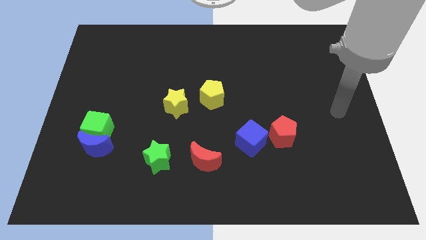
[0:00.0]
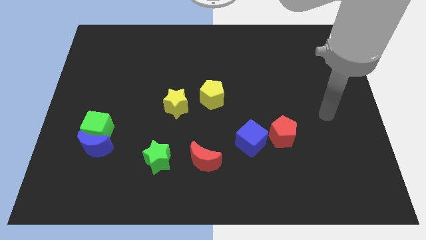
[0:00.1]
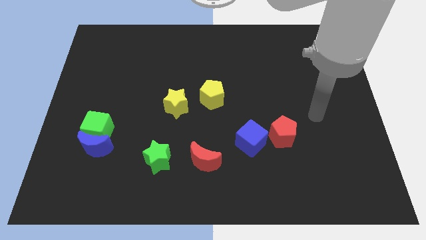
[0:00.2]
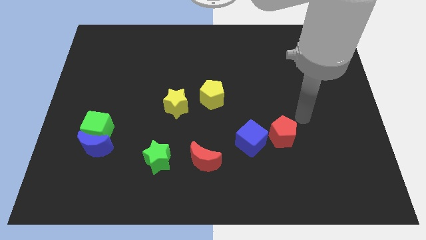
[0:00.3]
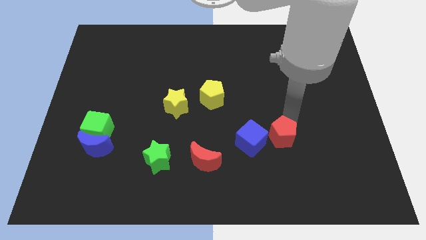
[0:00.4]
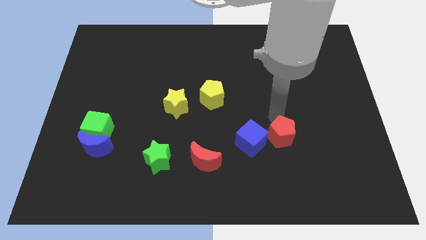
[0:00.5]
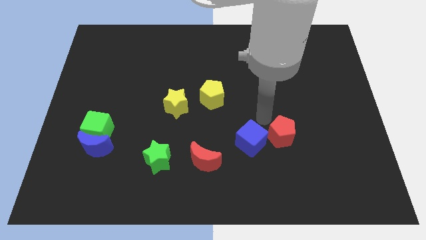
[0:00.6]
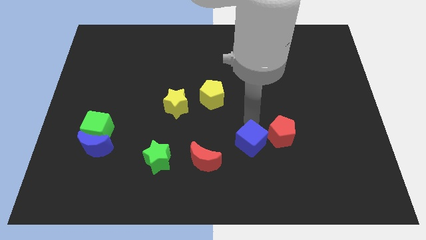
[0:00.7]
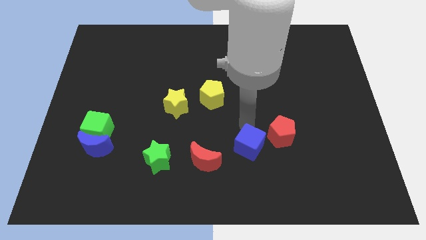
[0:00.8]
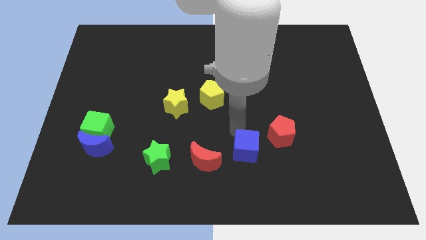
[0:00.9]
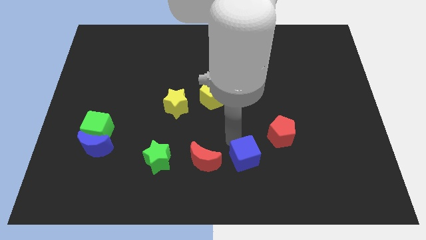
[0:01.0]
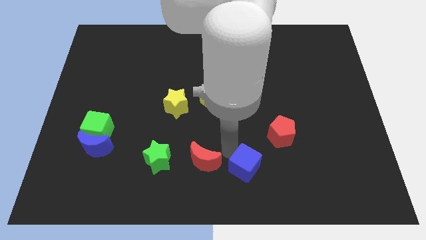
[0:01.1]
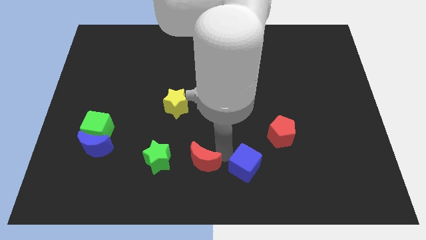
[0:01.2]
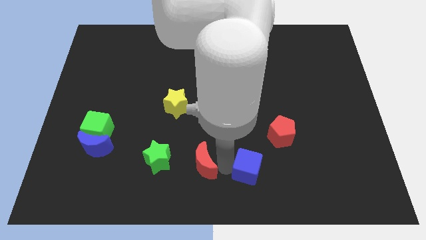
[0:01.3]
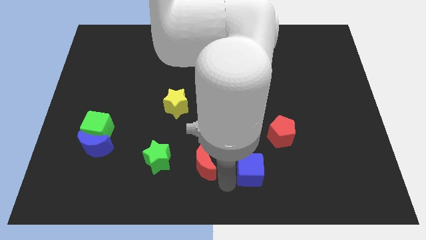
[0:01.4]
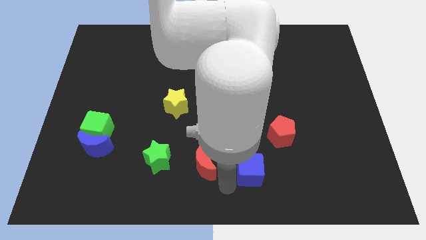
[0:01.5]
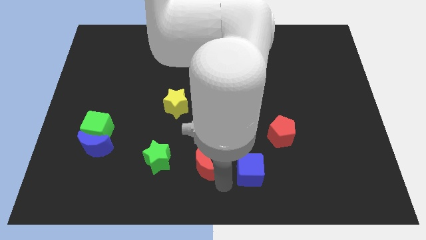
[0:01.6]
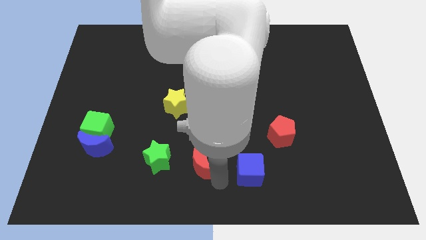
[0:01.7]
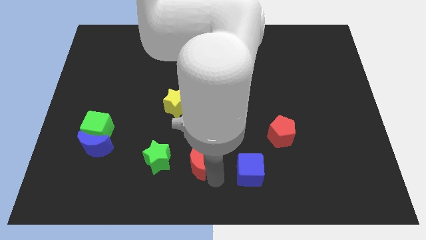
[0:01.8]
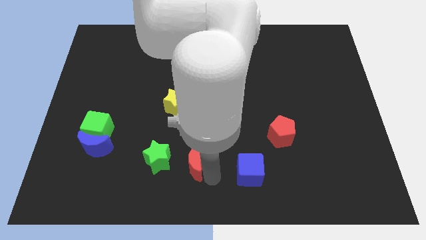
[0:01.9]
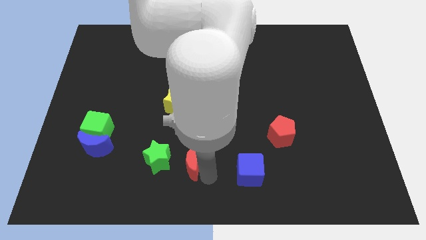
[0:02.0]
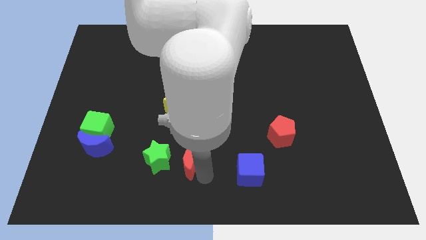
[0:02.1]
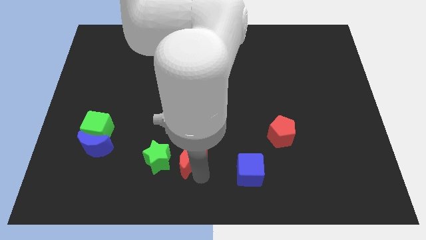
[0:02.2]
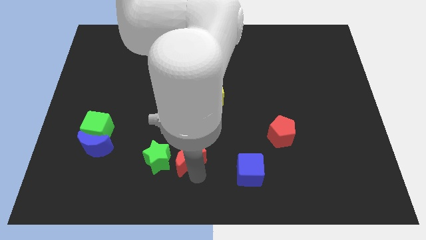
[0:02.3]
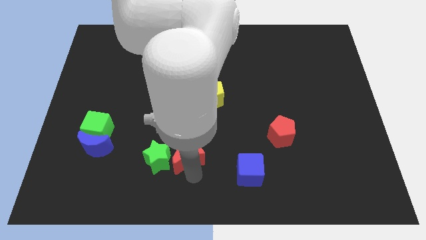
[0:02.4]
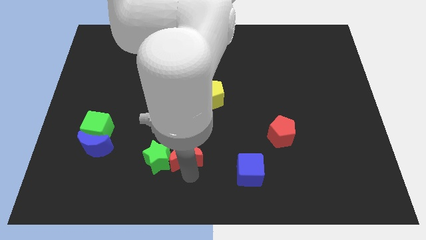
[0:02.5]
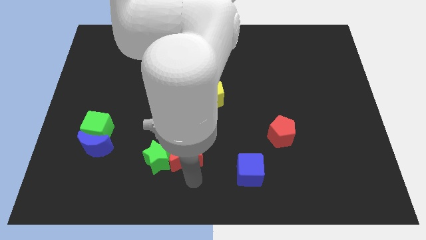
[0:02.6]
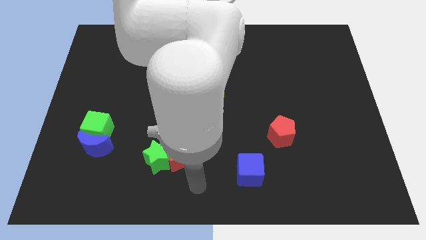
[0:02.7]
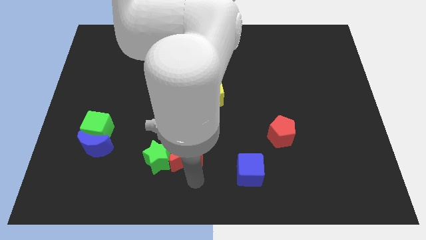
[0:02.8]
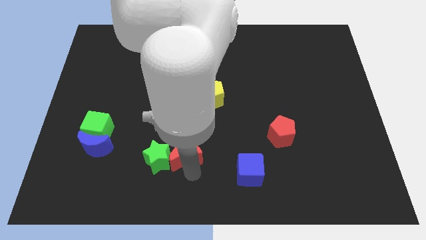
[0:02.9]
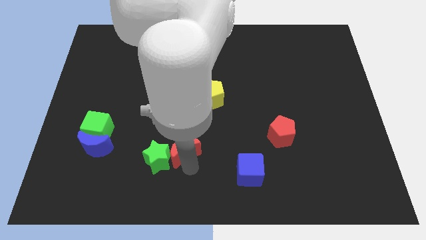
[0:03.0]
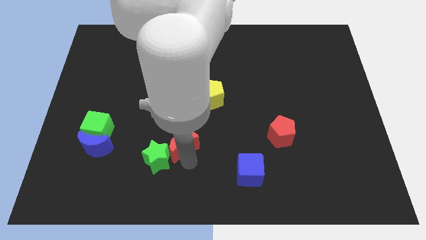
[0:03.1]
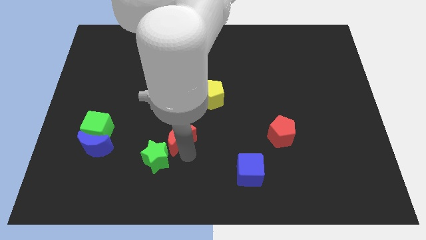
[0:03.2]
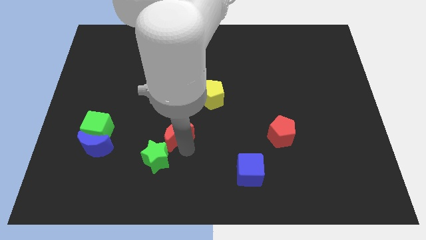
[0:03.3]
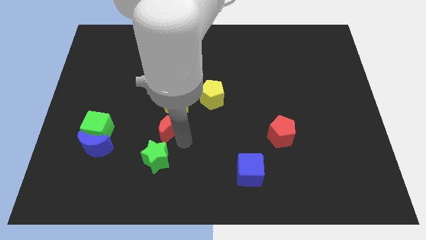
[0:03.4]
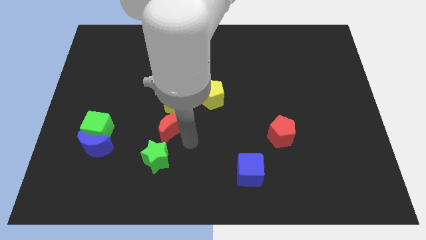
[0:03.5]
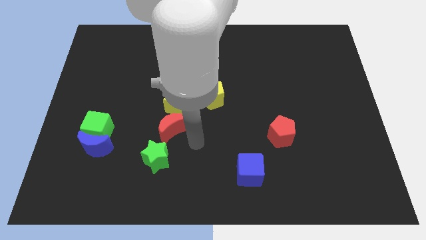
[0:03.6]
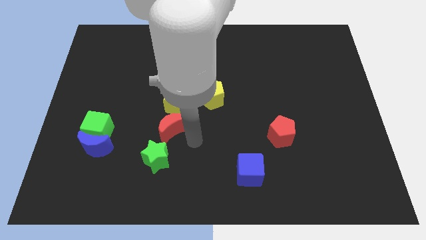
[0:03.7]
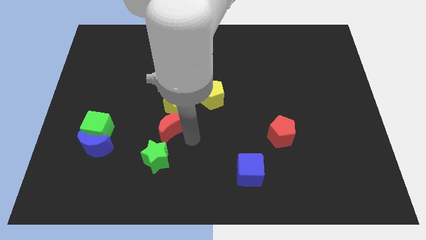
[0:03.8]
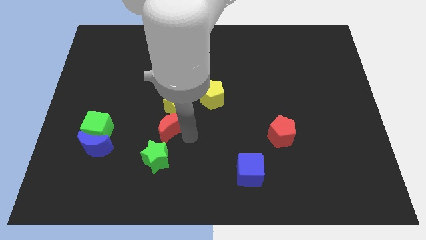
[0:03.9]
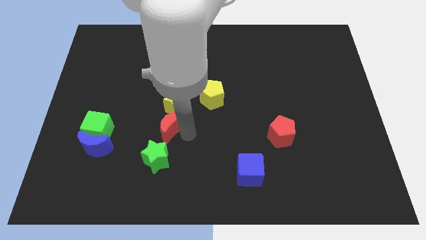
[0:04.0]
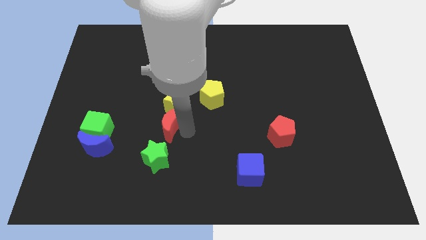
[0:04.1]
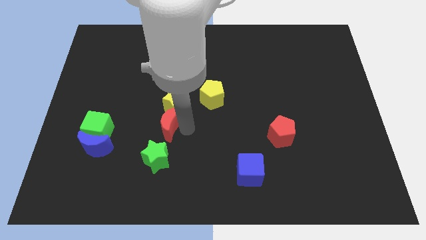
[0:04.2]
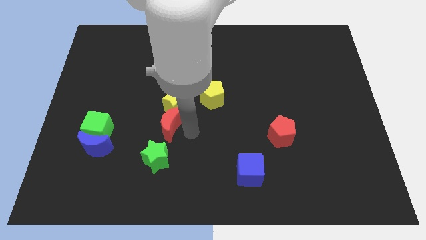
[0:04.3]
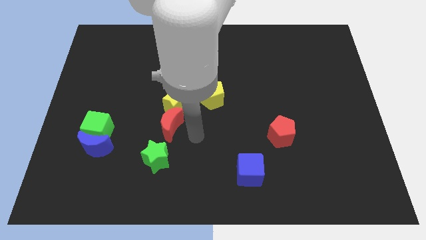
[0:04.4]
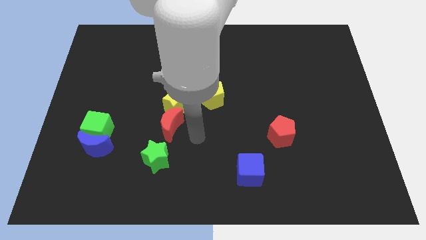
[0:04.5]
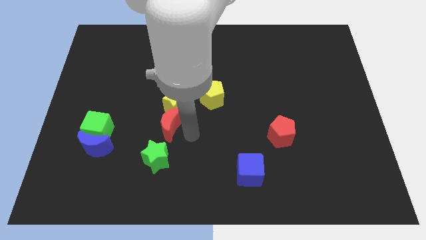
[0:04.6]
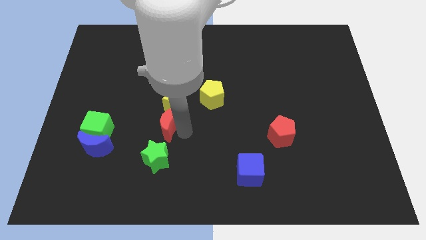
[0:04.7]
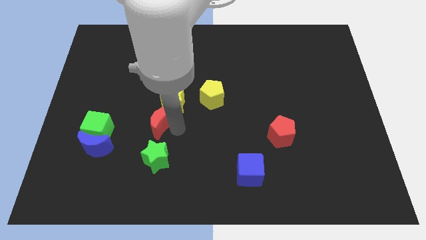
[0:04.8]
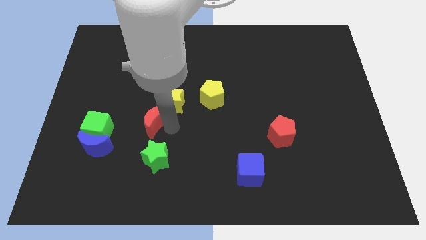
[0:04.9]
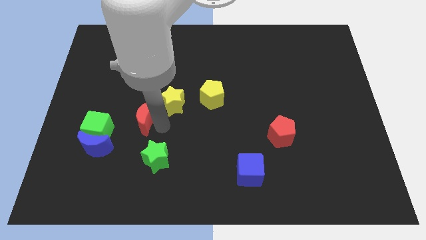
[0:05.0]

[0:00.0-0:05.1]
put the red moon left of the yellow star

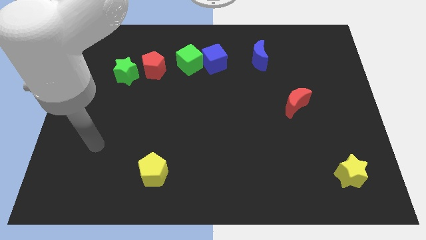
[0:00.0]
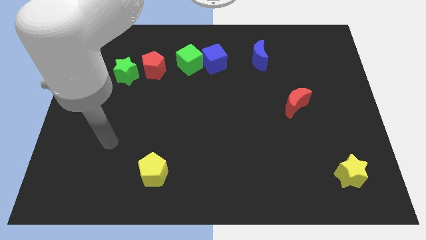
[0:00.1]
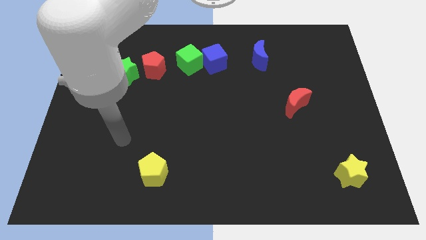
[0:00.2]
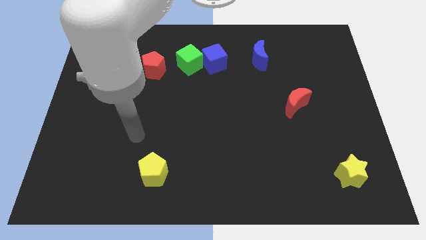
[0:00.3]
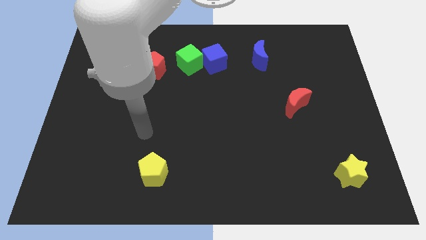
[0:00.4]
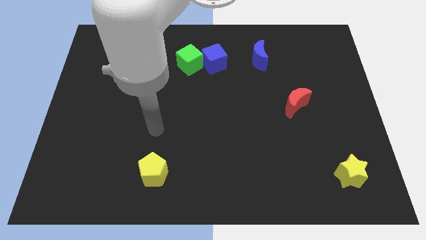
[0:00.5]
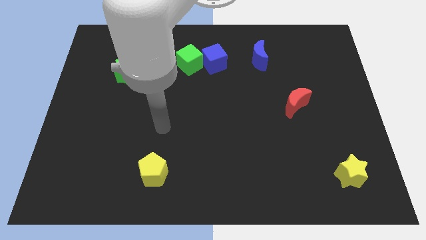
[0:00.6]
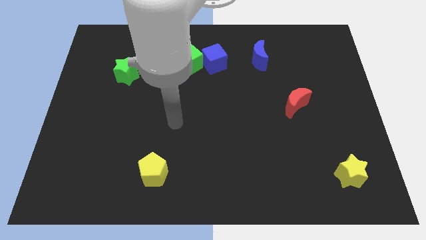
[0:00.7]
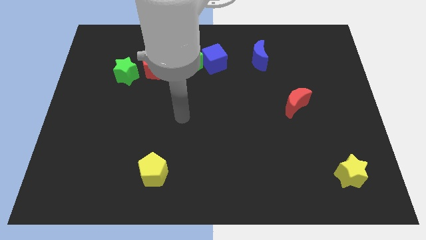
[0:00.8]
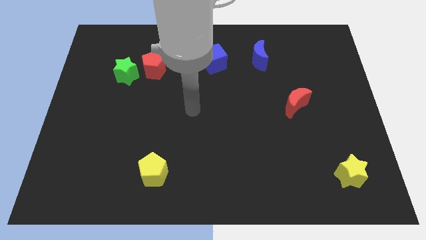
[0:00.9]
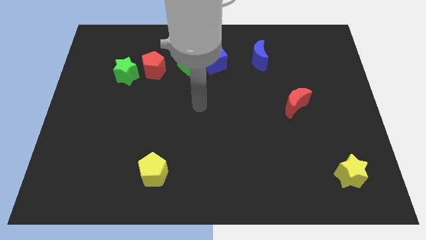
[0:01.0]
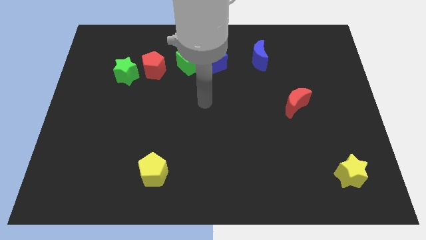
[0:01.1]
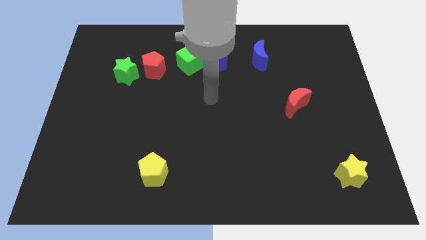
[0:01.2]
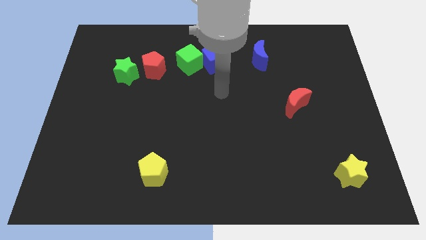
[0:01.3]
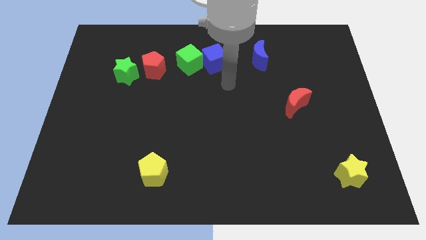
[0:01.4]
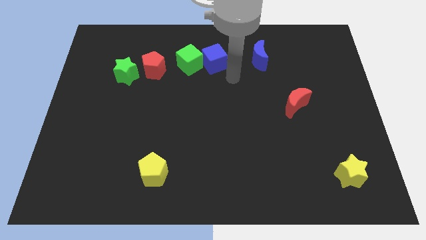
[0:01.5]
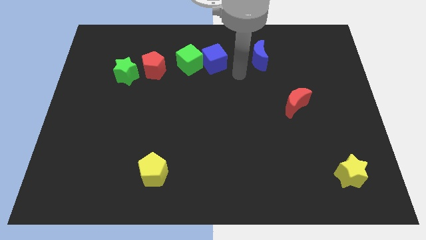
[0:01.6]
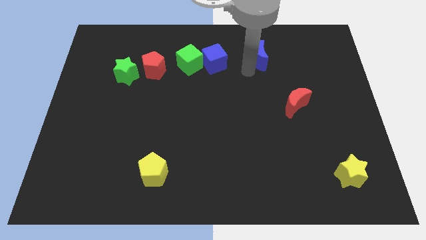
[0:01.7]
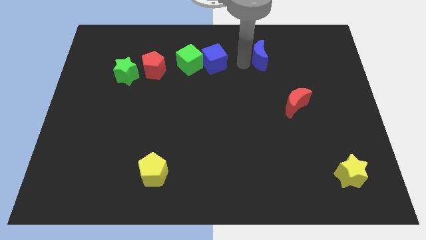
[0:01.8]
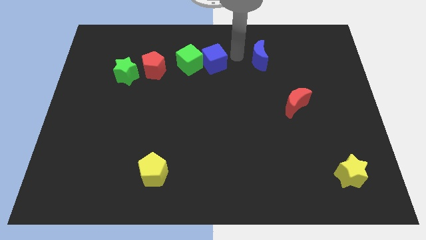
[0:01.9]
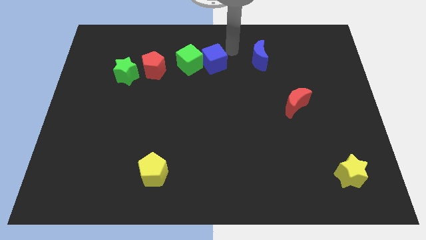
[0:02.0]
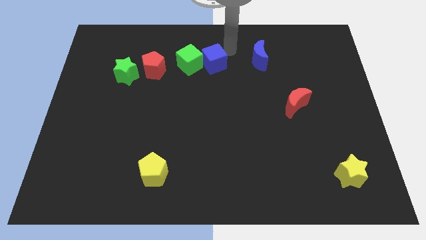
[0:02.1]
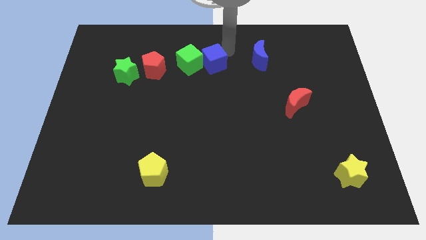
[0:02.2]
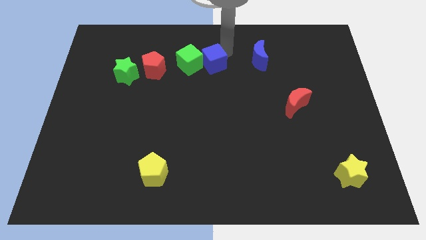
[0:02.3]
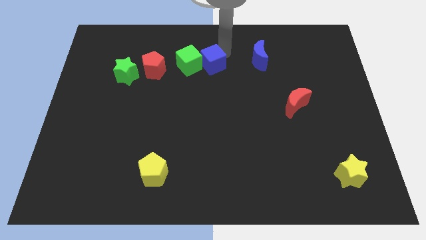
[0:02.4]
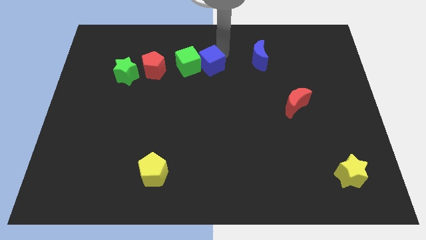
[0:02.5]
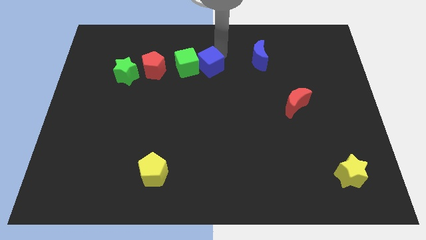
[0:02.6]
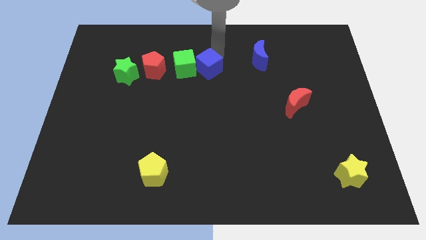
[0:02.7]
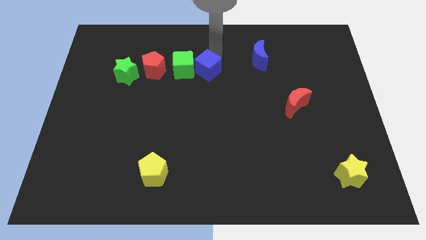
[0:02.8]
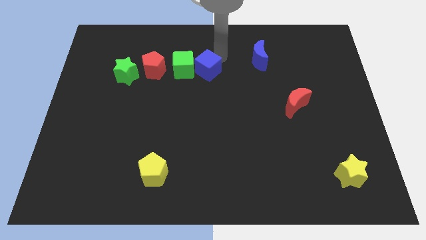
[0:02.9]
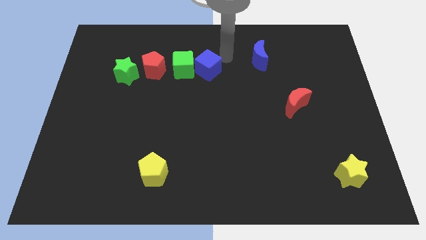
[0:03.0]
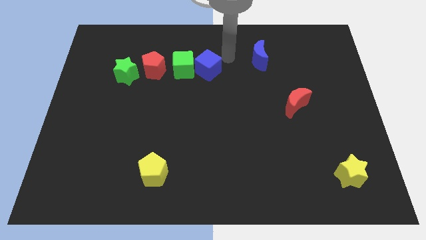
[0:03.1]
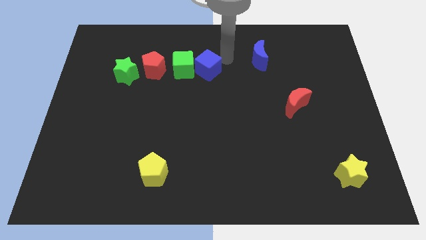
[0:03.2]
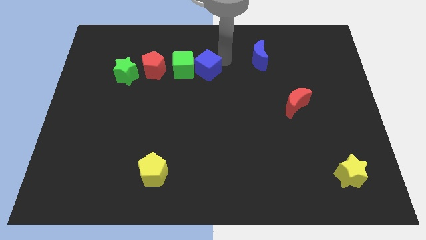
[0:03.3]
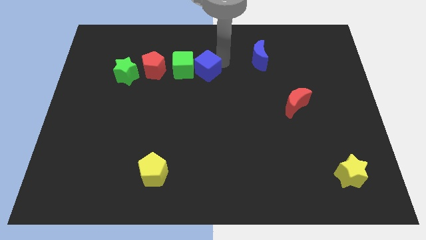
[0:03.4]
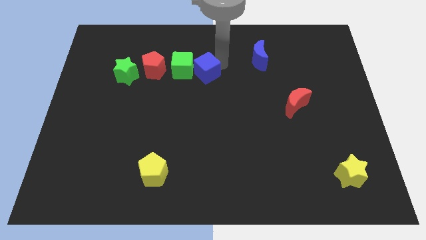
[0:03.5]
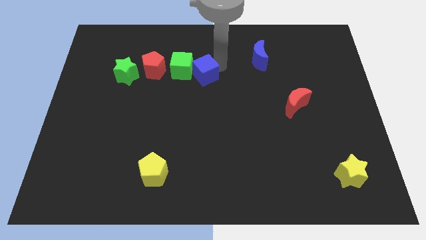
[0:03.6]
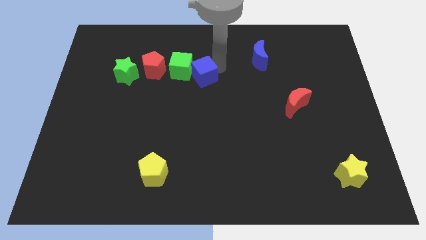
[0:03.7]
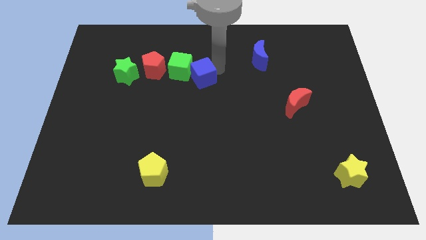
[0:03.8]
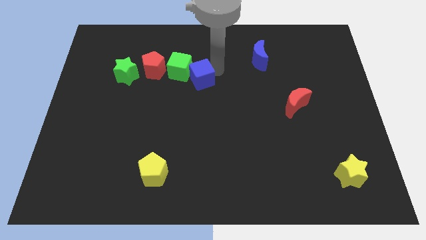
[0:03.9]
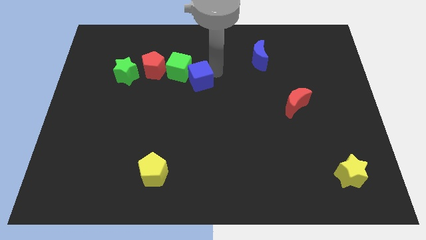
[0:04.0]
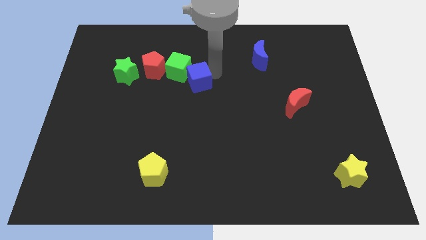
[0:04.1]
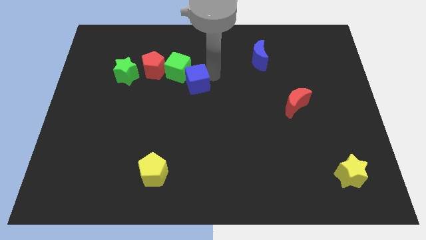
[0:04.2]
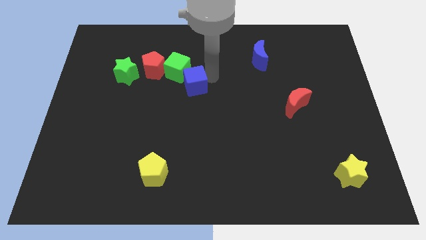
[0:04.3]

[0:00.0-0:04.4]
slide the blue cube diagonally down and to the right of the red pentagon
